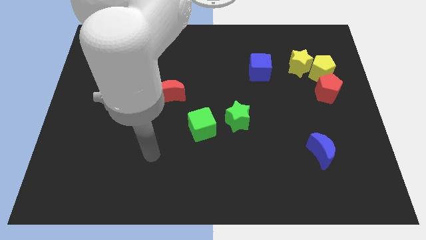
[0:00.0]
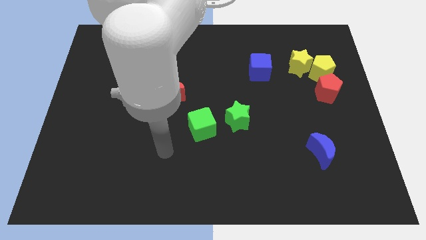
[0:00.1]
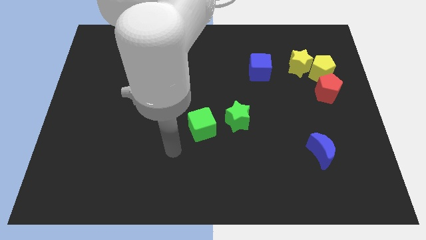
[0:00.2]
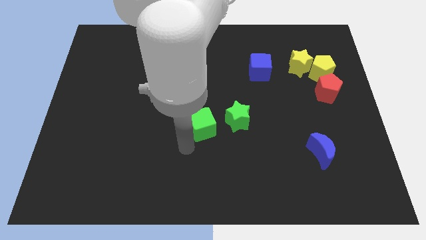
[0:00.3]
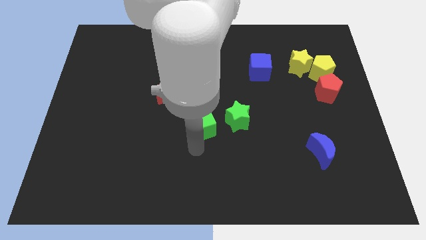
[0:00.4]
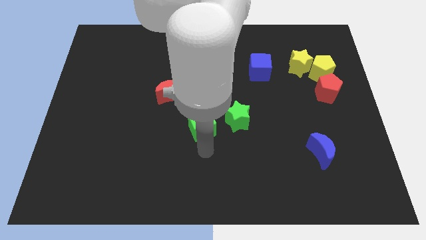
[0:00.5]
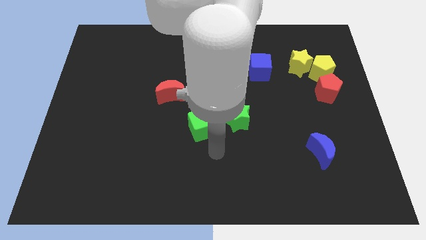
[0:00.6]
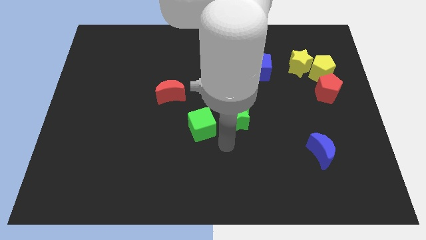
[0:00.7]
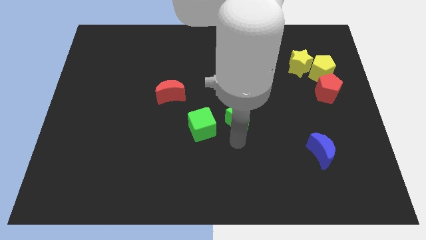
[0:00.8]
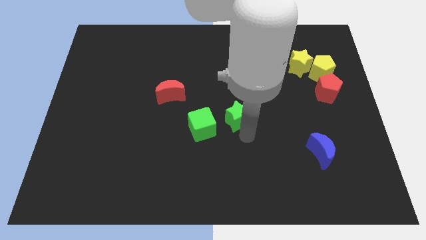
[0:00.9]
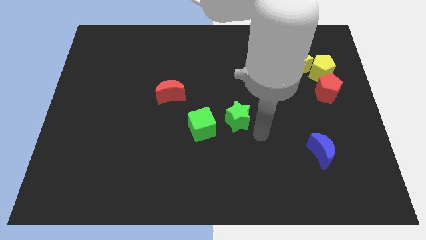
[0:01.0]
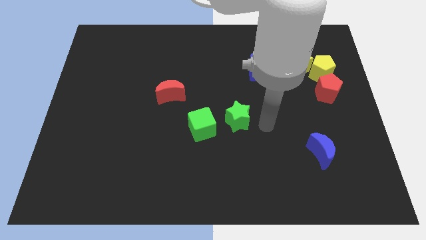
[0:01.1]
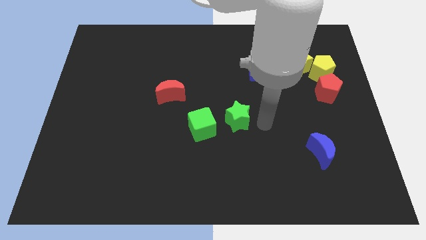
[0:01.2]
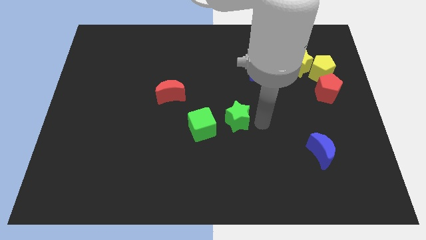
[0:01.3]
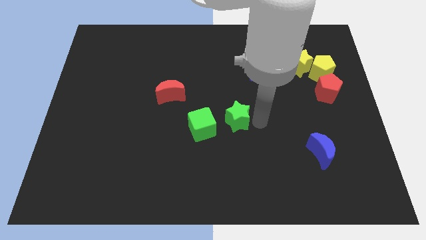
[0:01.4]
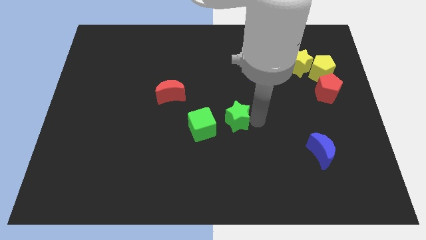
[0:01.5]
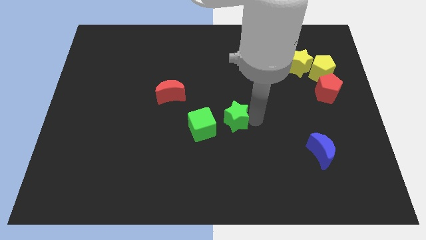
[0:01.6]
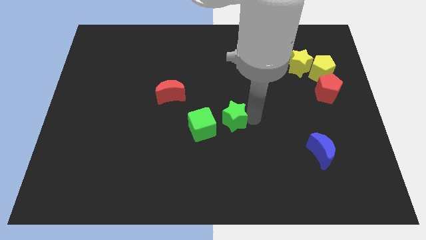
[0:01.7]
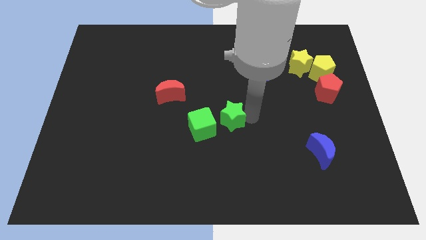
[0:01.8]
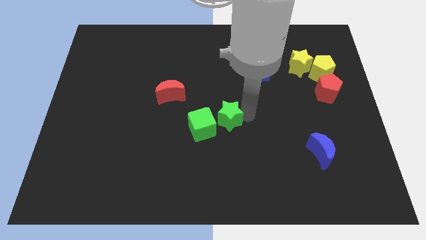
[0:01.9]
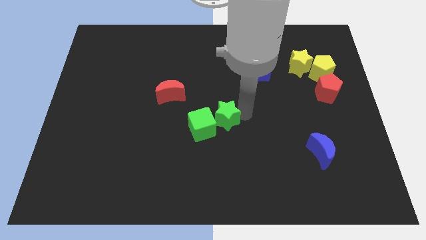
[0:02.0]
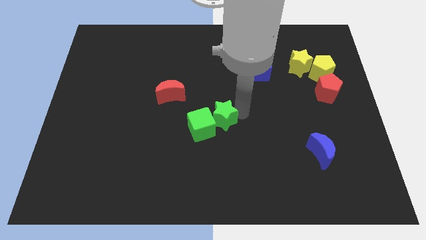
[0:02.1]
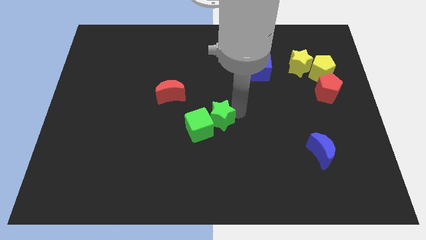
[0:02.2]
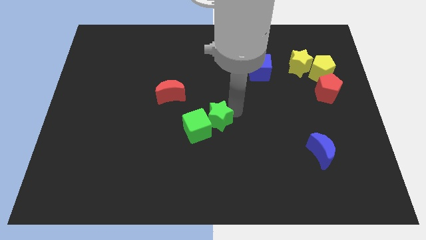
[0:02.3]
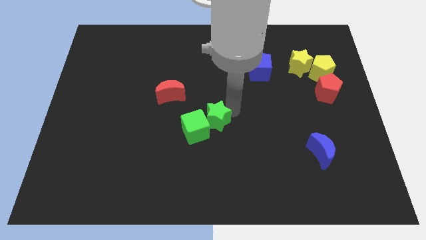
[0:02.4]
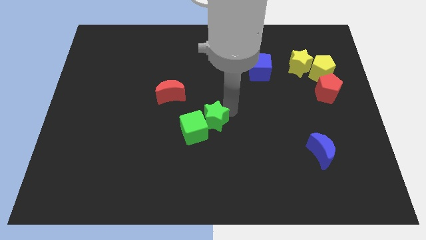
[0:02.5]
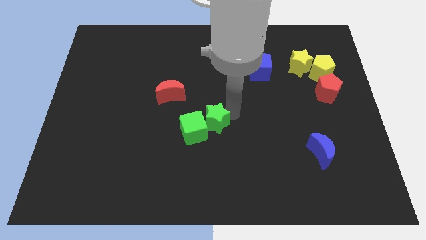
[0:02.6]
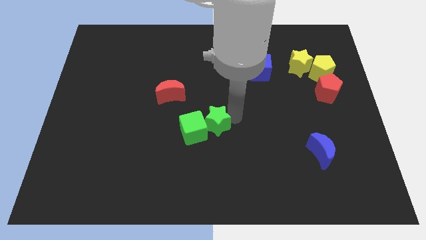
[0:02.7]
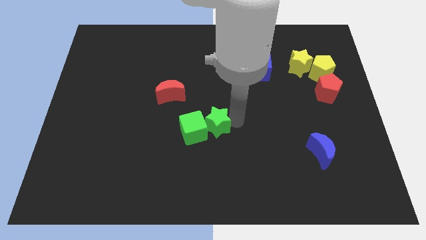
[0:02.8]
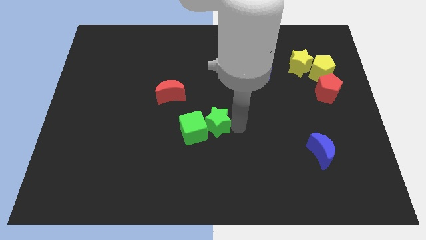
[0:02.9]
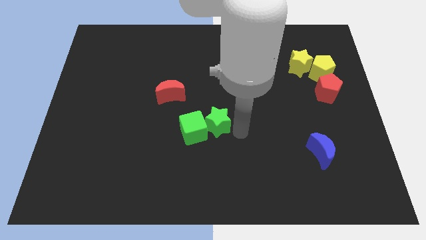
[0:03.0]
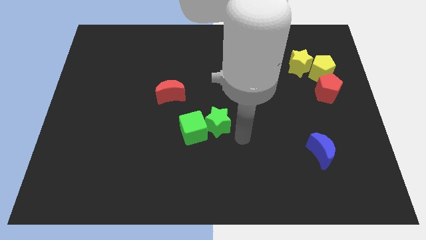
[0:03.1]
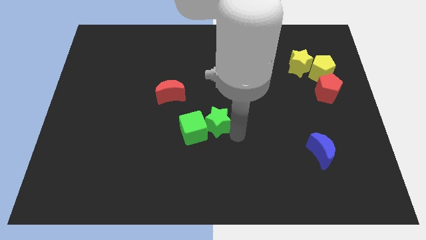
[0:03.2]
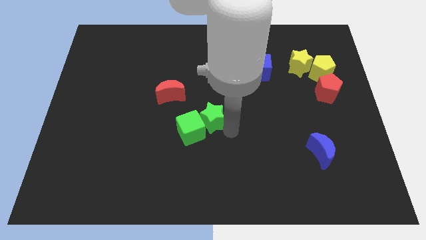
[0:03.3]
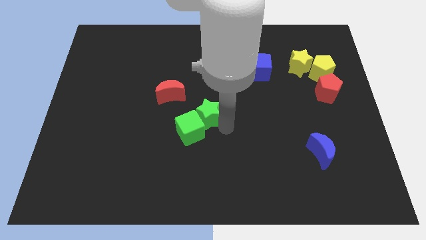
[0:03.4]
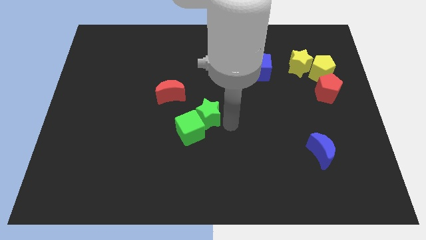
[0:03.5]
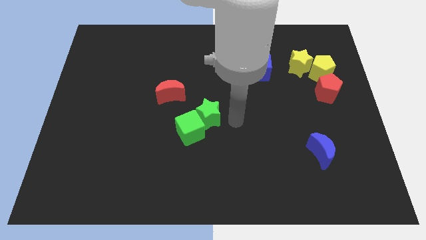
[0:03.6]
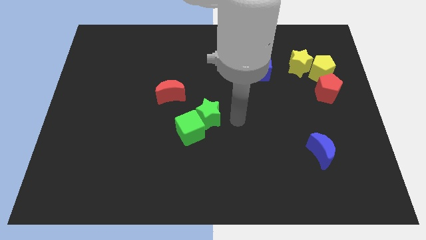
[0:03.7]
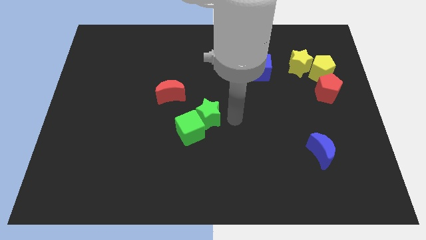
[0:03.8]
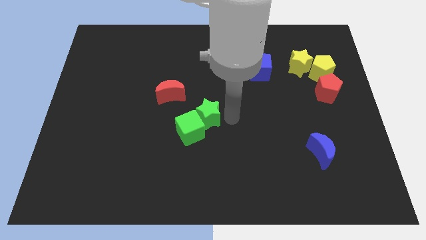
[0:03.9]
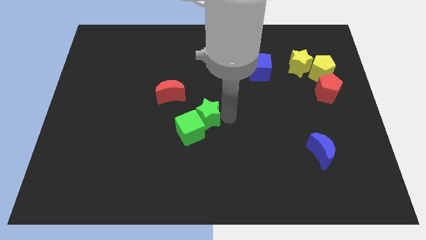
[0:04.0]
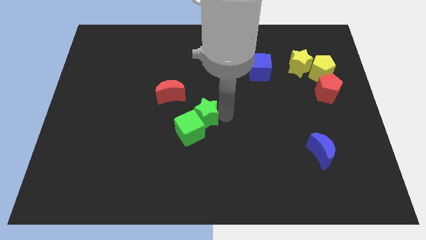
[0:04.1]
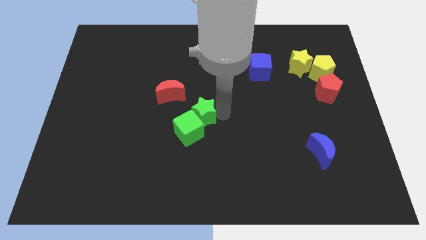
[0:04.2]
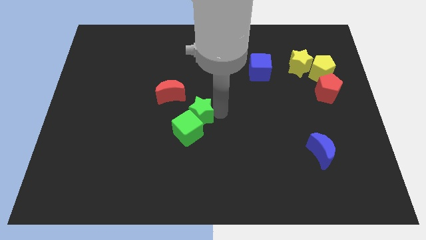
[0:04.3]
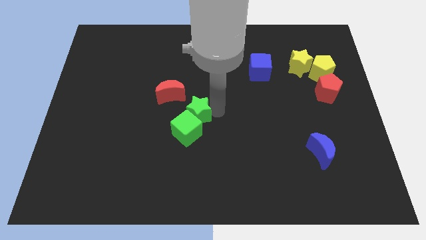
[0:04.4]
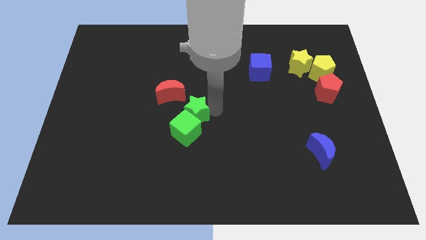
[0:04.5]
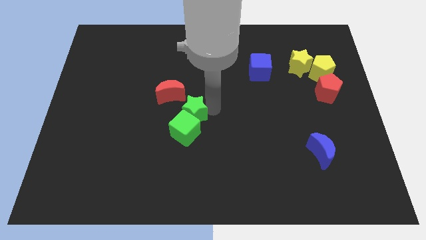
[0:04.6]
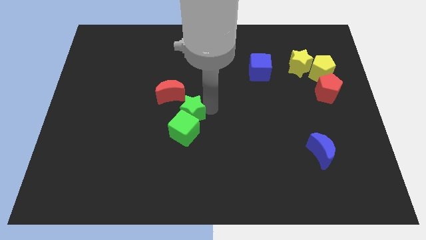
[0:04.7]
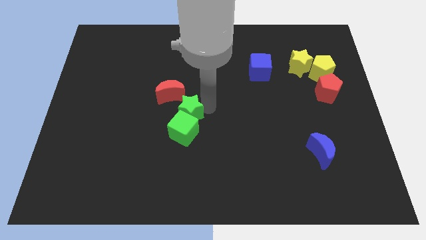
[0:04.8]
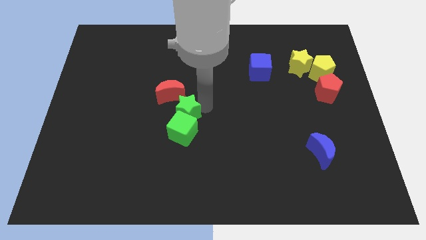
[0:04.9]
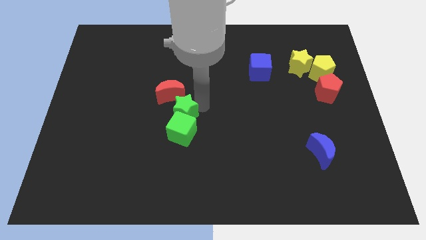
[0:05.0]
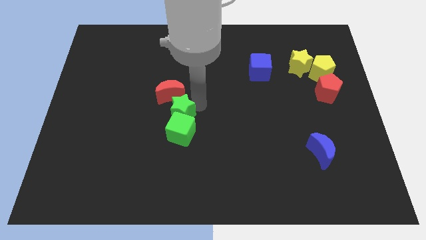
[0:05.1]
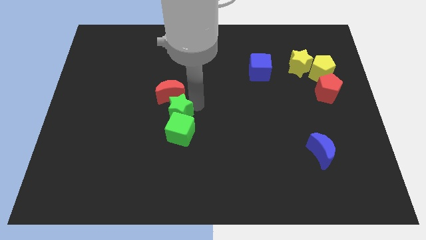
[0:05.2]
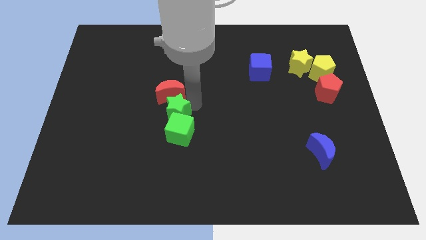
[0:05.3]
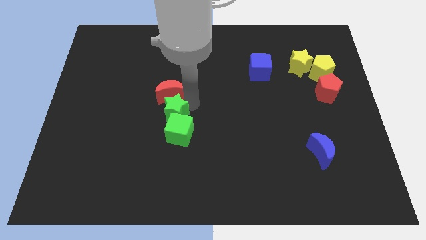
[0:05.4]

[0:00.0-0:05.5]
slide the green star to the bottom left of the red moon

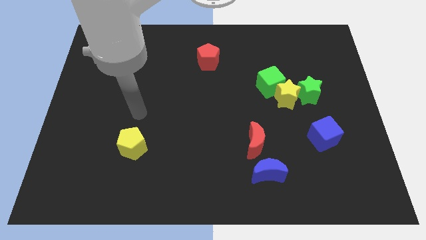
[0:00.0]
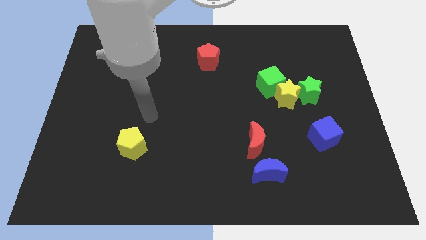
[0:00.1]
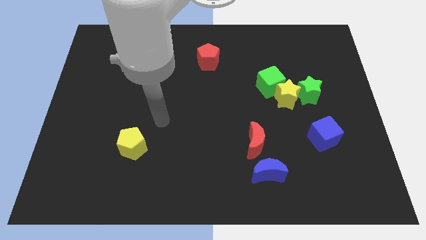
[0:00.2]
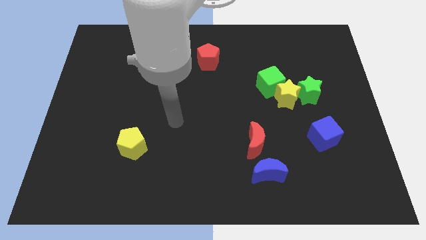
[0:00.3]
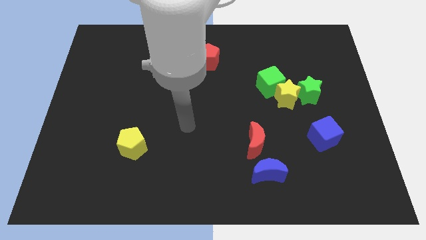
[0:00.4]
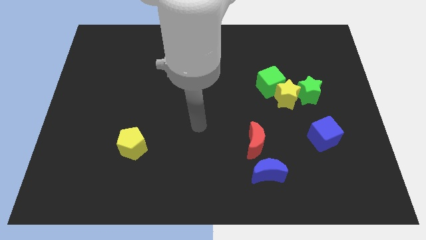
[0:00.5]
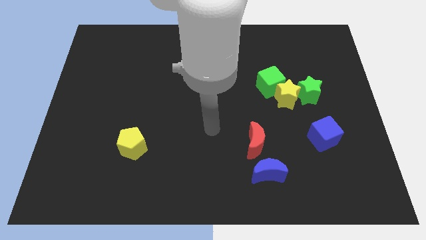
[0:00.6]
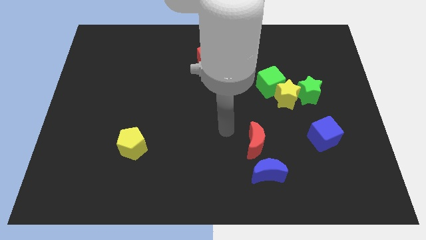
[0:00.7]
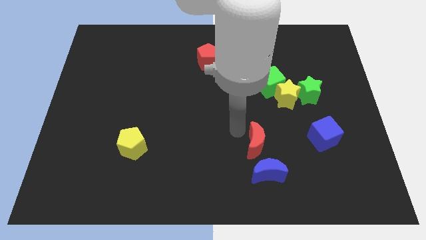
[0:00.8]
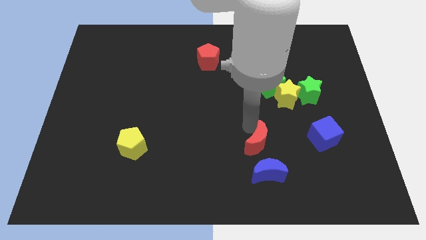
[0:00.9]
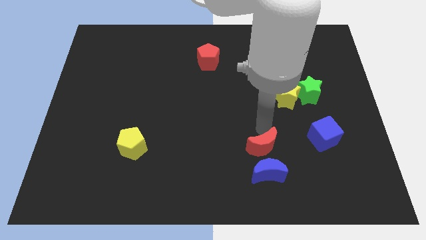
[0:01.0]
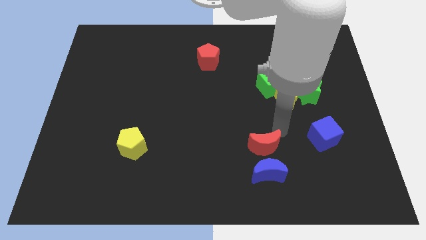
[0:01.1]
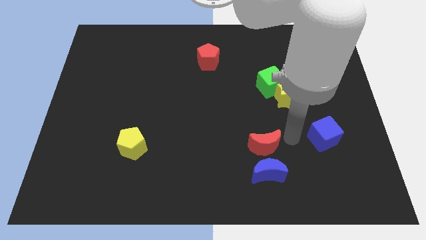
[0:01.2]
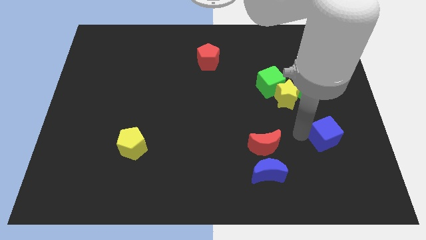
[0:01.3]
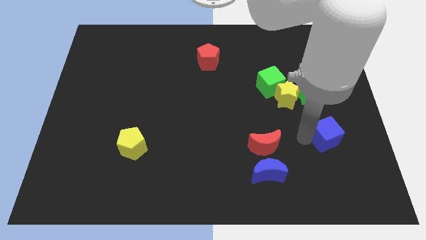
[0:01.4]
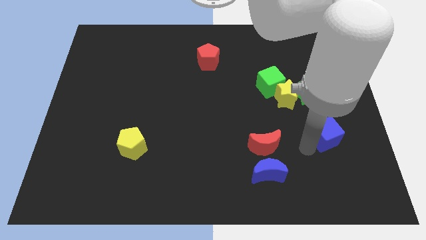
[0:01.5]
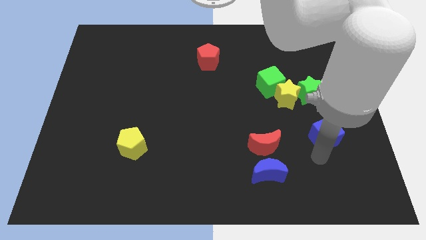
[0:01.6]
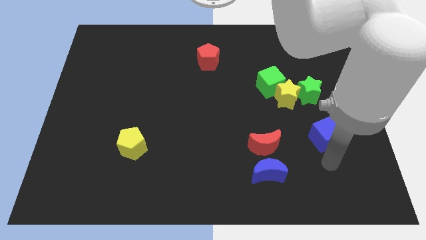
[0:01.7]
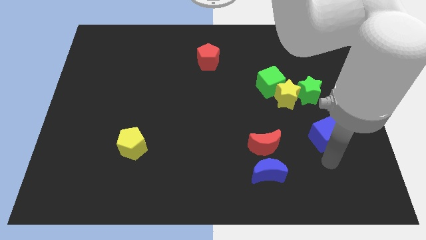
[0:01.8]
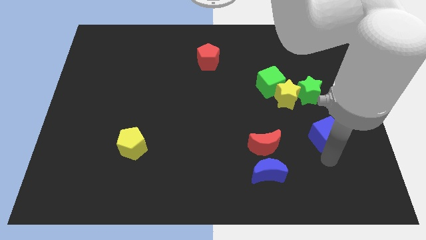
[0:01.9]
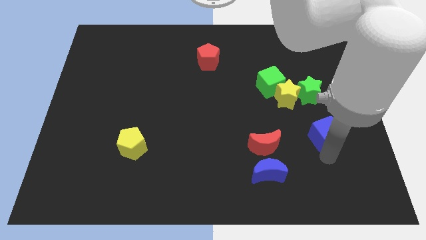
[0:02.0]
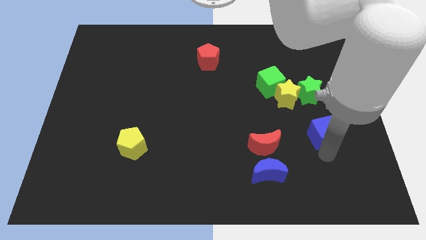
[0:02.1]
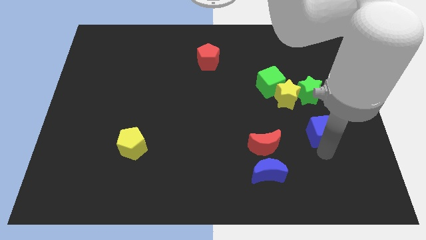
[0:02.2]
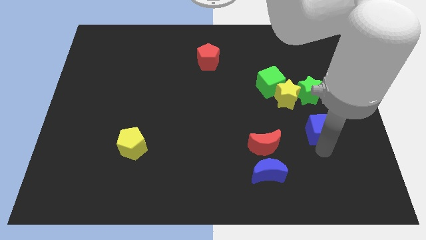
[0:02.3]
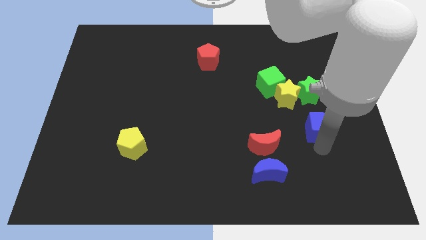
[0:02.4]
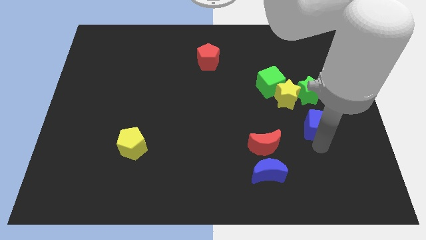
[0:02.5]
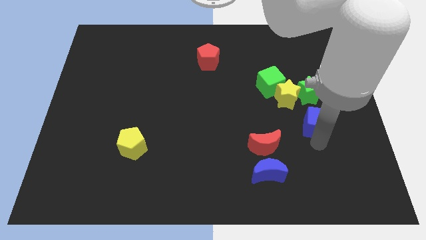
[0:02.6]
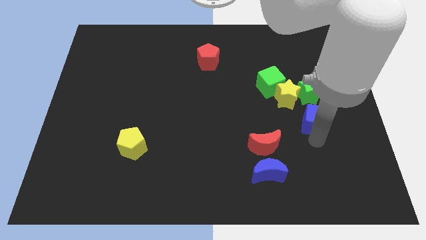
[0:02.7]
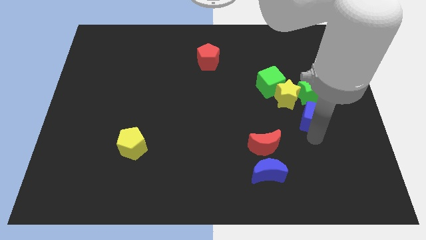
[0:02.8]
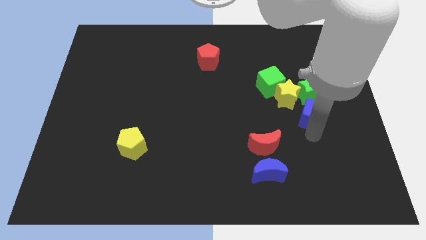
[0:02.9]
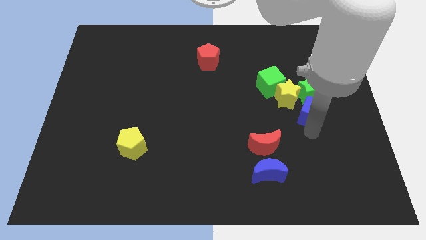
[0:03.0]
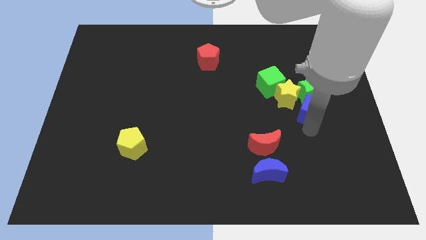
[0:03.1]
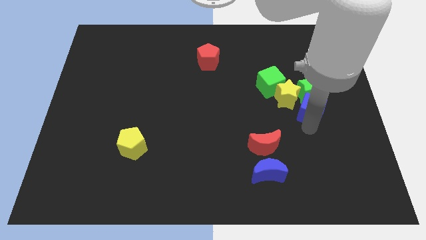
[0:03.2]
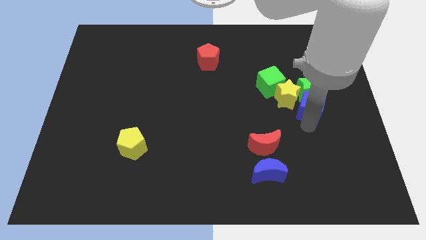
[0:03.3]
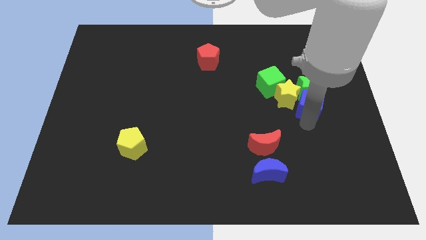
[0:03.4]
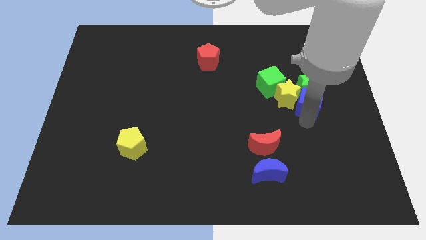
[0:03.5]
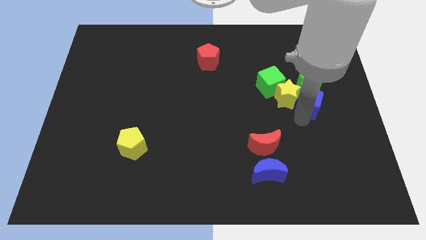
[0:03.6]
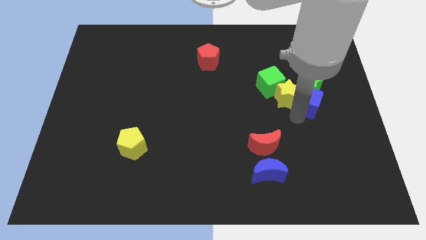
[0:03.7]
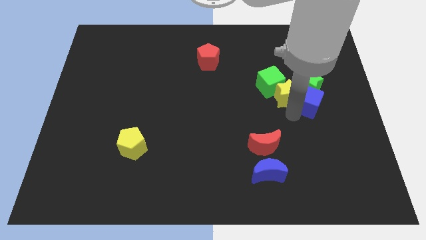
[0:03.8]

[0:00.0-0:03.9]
put the blue cube to the top right side of the yellow star
